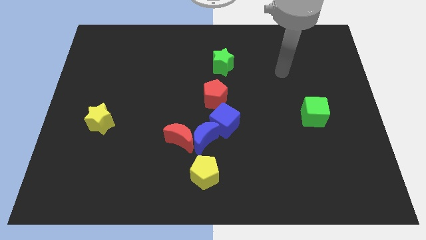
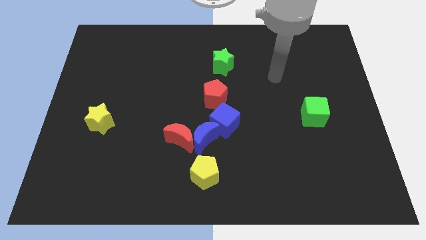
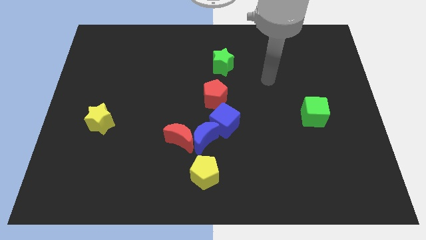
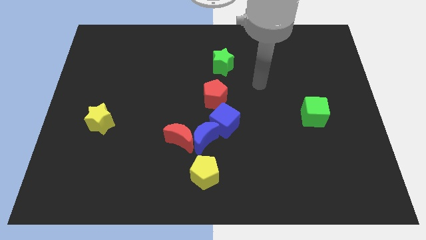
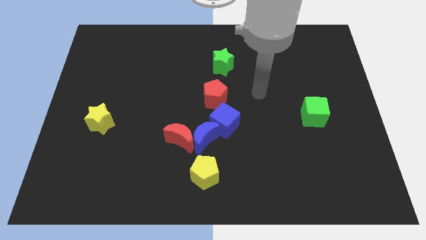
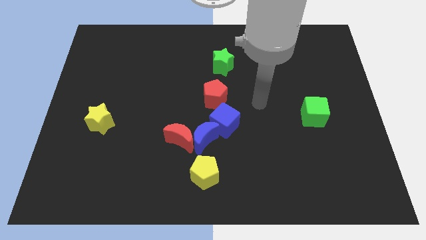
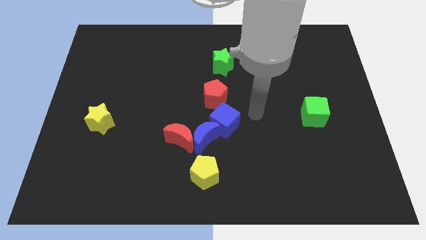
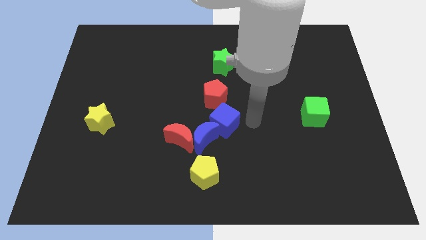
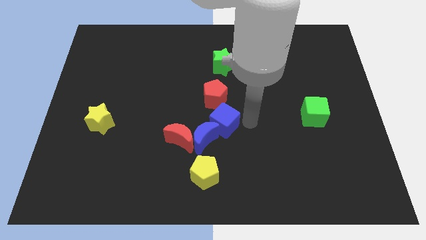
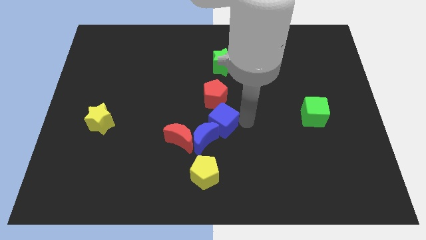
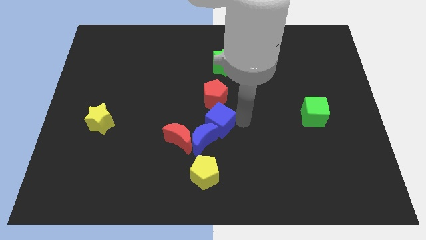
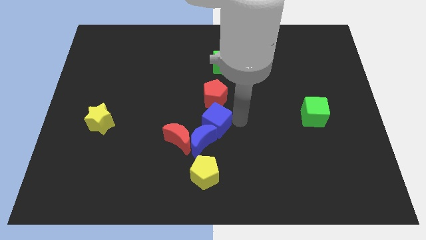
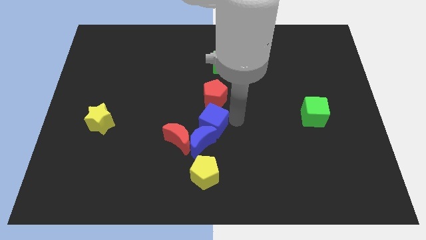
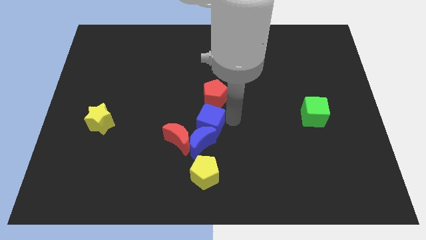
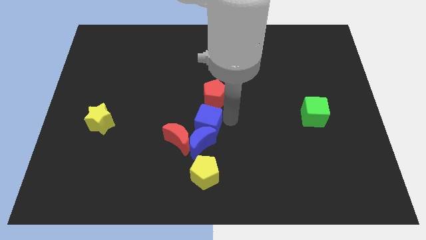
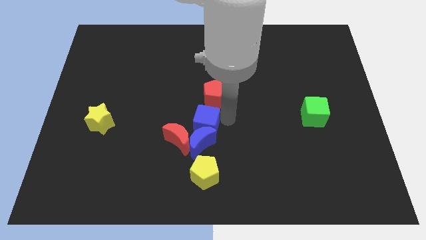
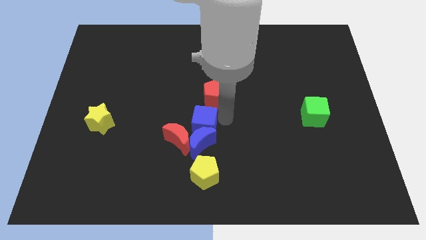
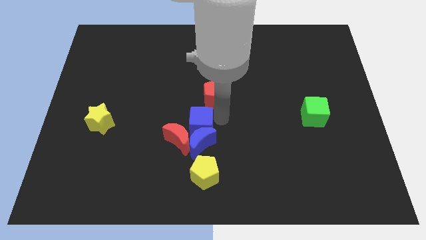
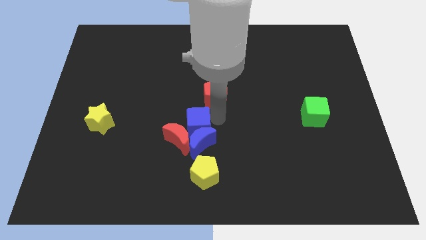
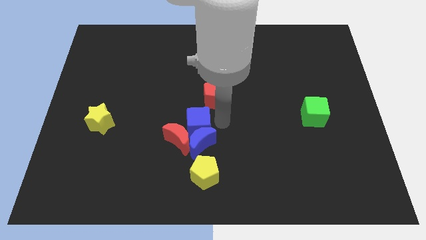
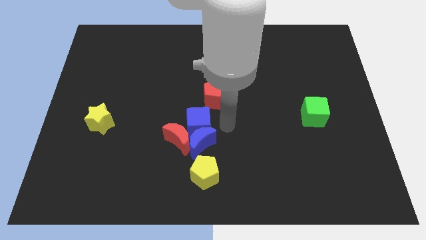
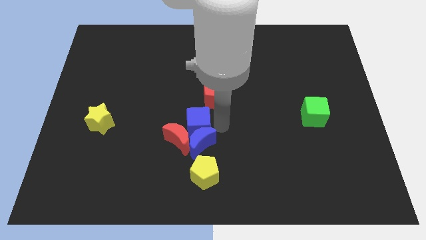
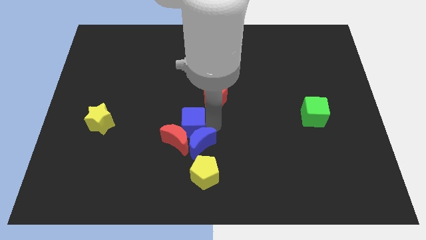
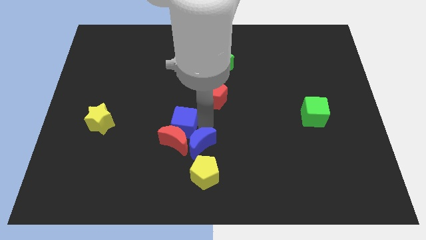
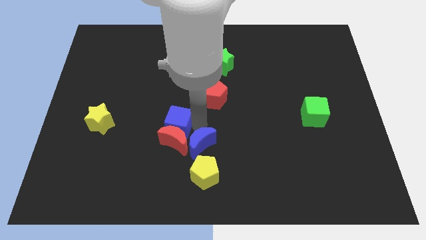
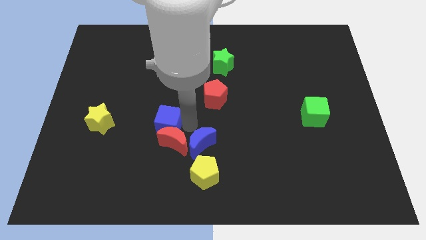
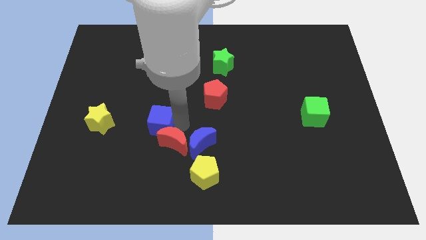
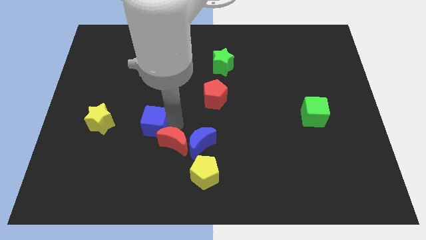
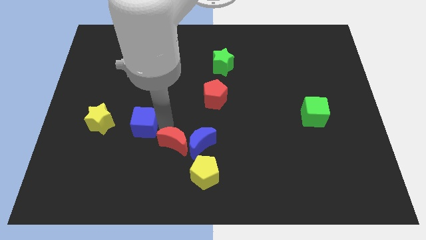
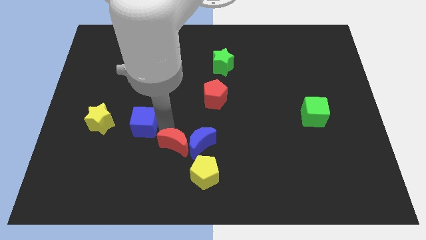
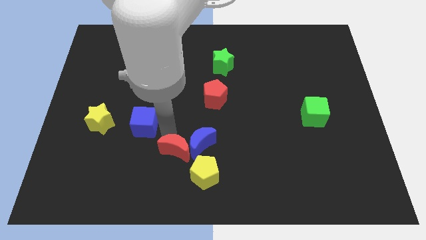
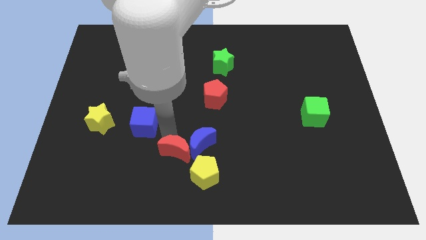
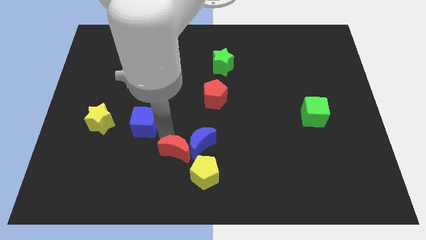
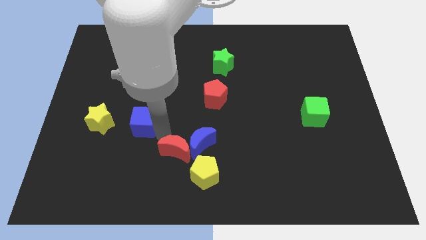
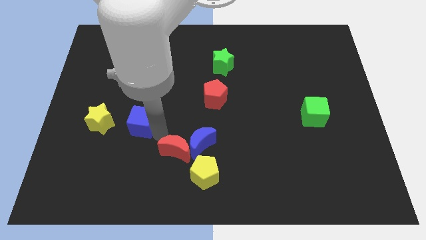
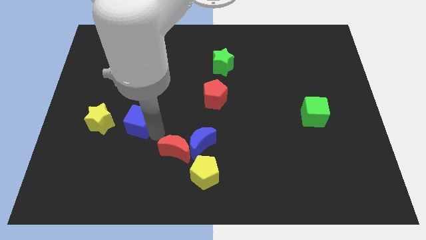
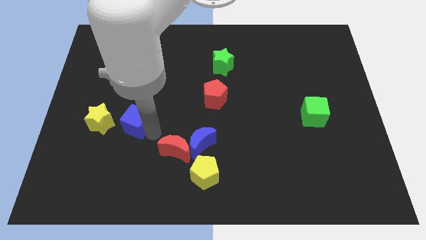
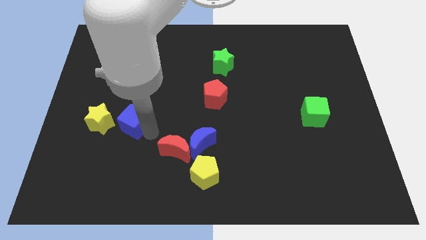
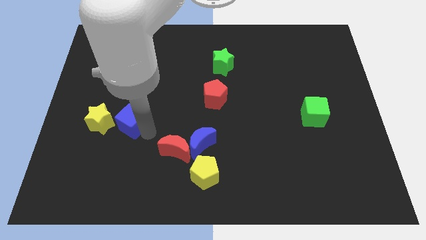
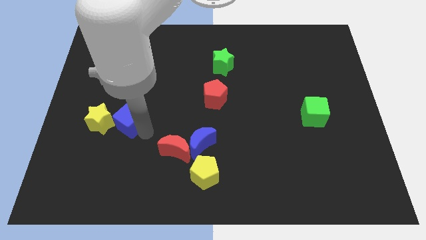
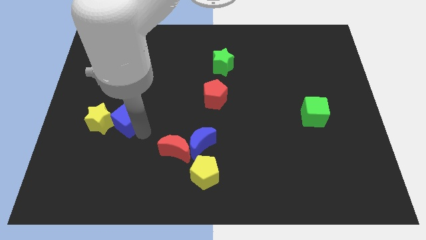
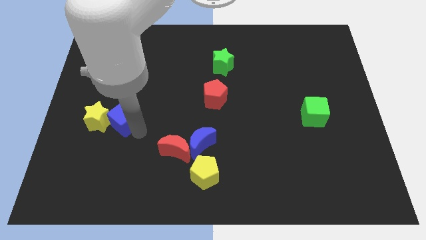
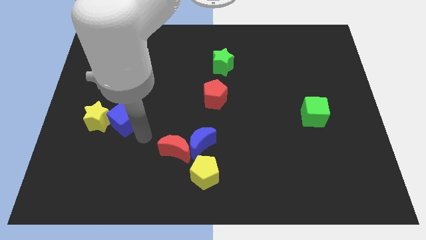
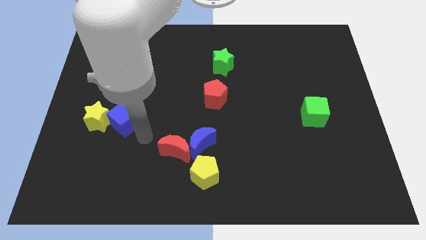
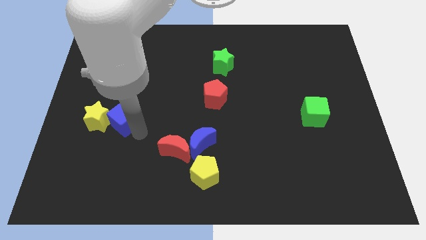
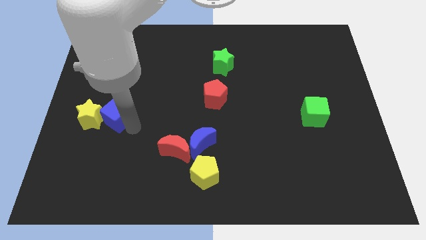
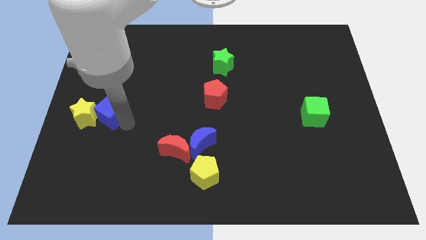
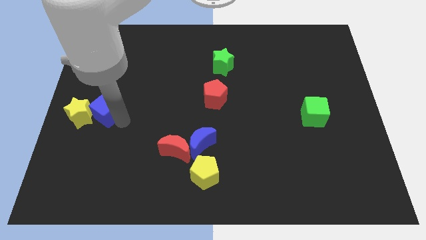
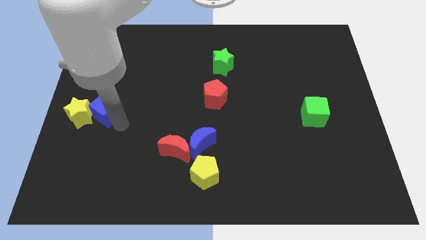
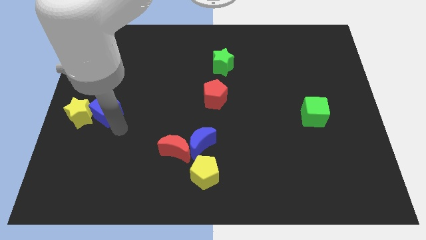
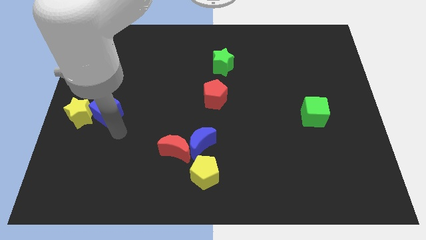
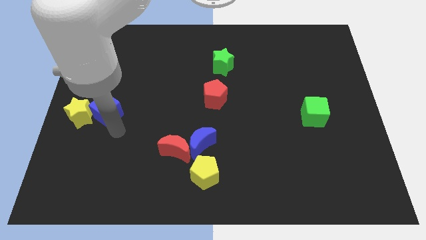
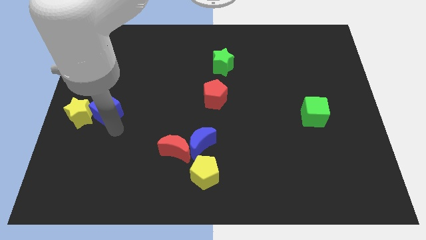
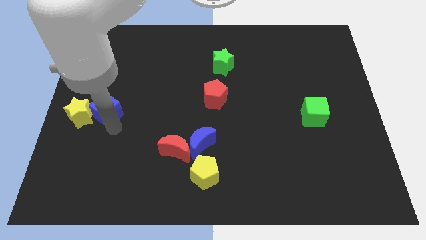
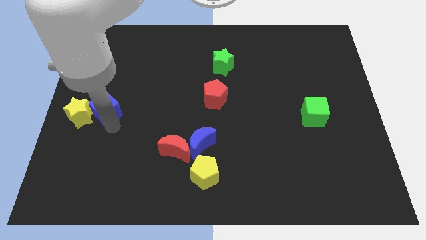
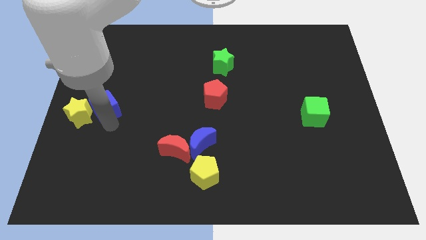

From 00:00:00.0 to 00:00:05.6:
push the blue cube to the left side of the board
